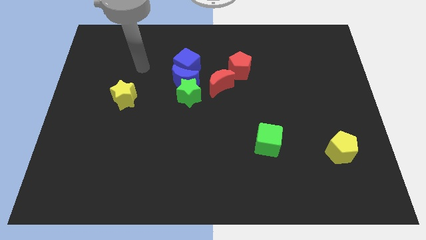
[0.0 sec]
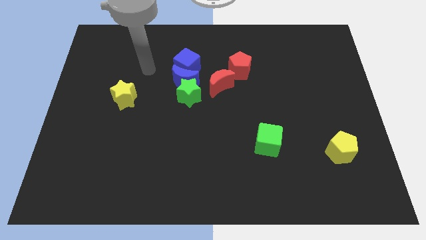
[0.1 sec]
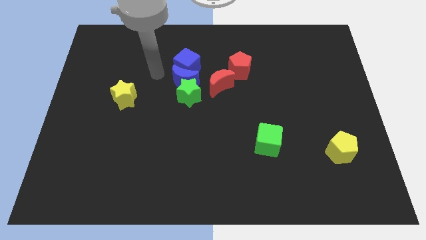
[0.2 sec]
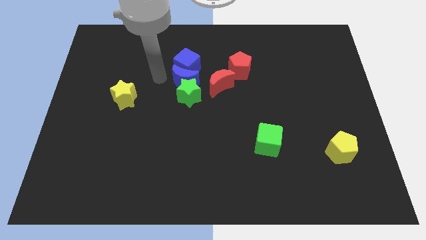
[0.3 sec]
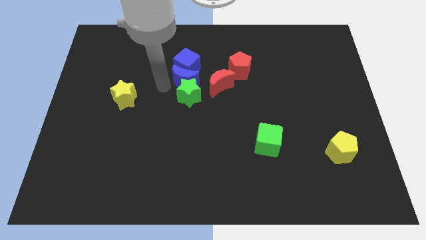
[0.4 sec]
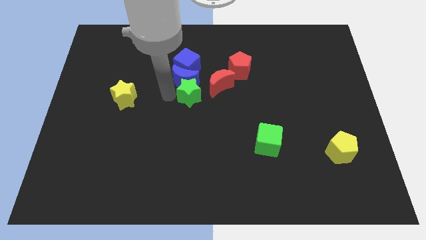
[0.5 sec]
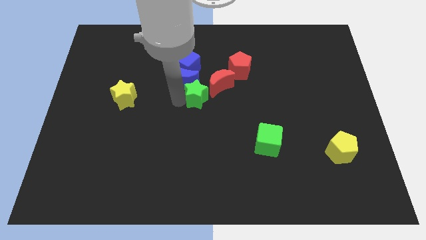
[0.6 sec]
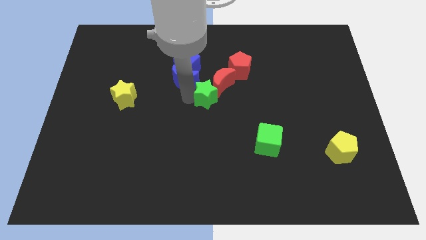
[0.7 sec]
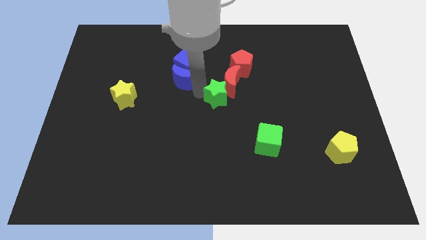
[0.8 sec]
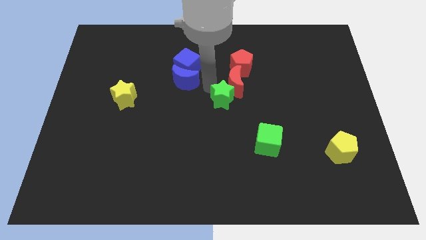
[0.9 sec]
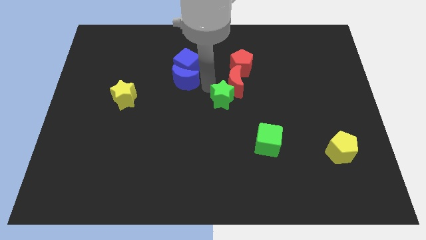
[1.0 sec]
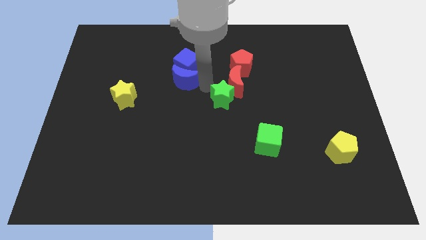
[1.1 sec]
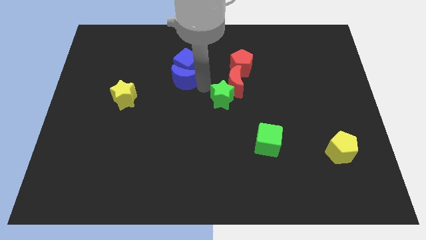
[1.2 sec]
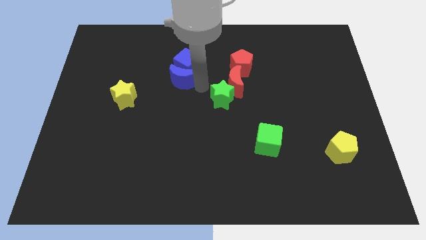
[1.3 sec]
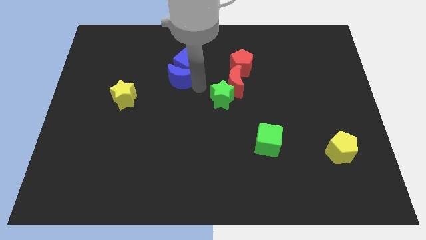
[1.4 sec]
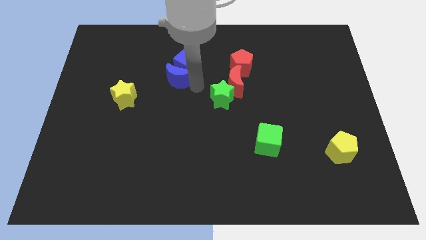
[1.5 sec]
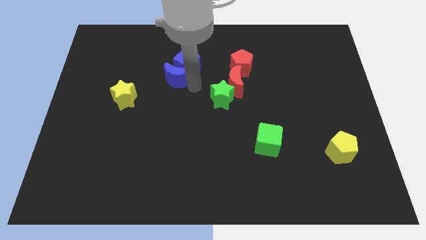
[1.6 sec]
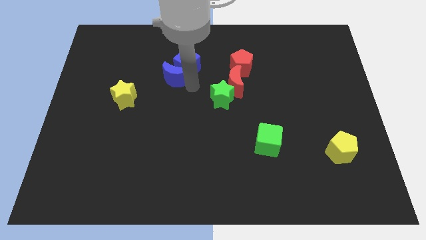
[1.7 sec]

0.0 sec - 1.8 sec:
separate the blue moon from the green star, blue cube, and red moon

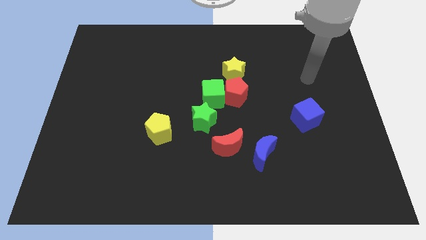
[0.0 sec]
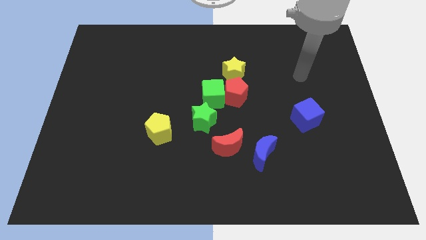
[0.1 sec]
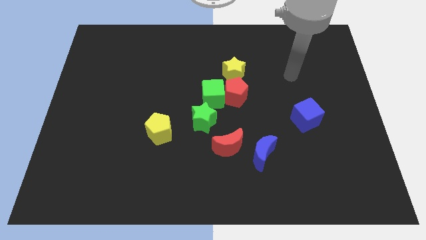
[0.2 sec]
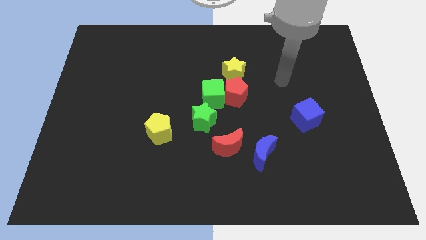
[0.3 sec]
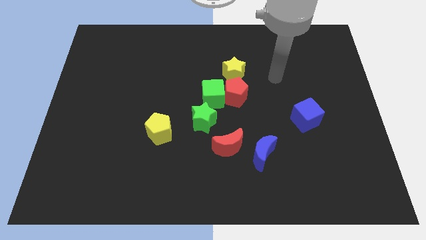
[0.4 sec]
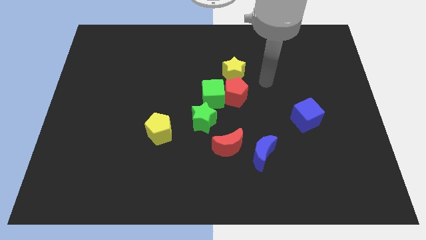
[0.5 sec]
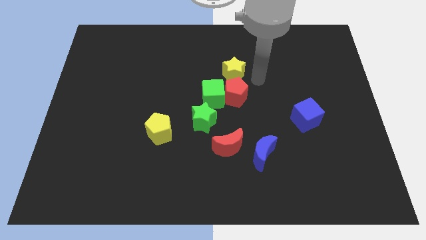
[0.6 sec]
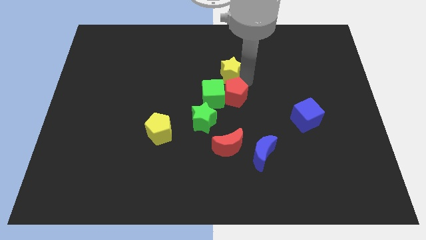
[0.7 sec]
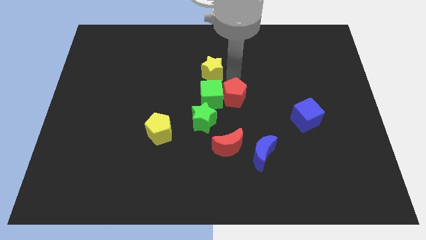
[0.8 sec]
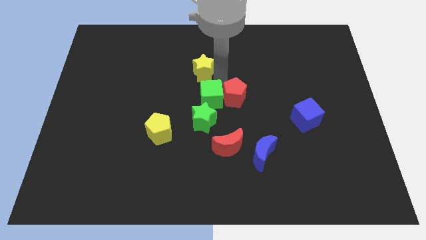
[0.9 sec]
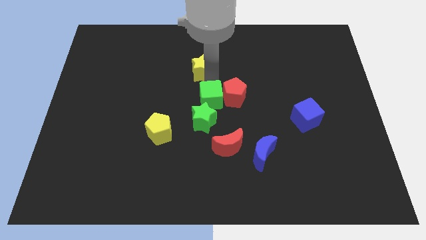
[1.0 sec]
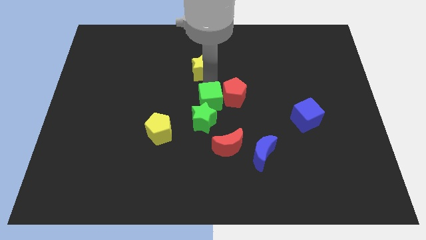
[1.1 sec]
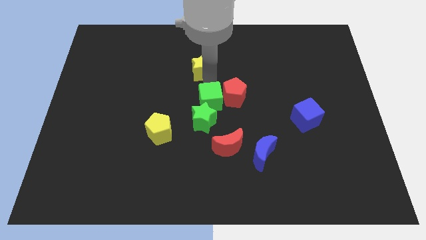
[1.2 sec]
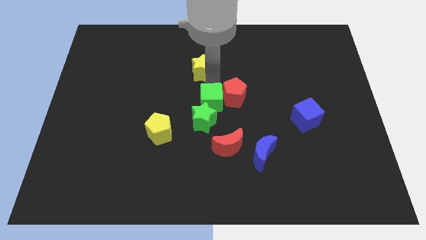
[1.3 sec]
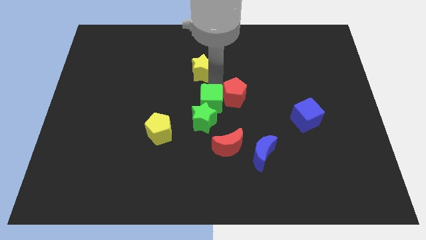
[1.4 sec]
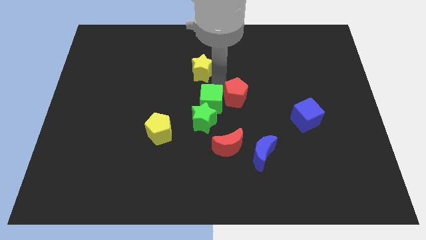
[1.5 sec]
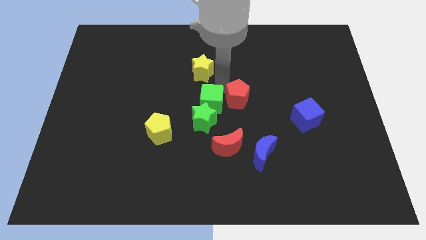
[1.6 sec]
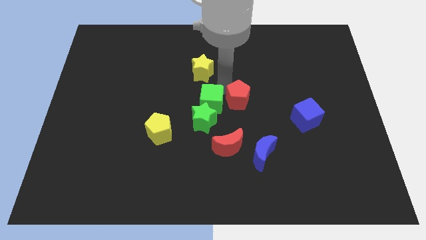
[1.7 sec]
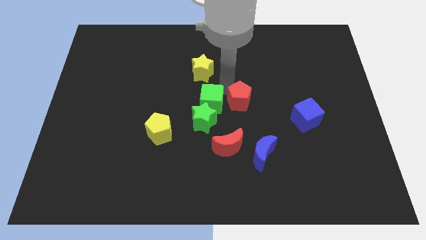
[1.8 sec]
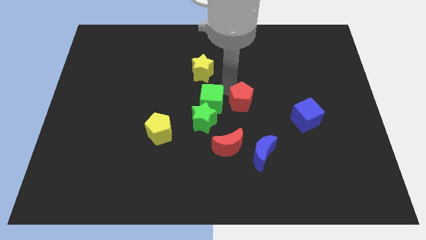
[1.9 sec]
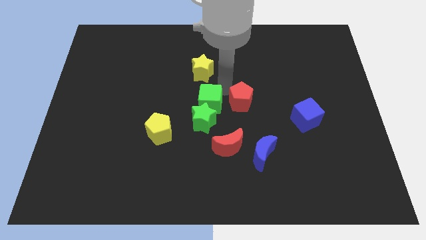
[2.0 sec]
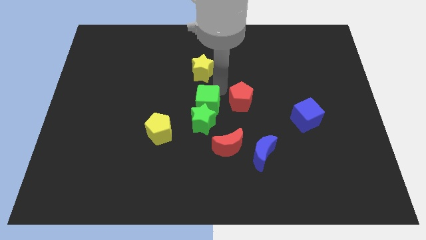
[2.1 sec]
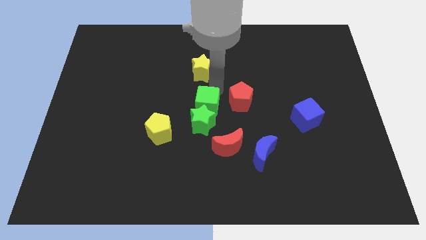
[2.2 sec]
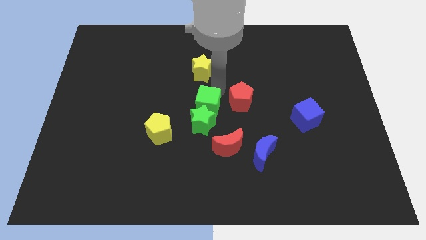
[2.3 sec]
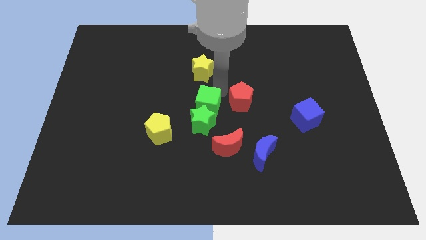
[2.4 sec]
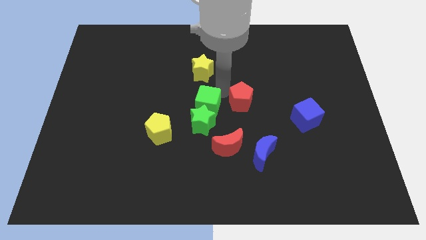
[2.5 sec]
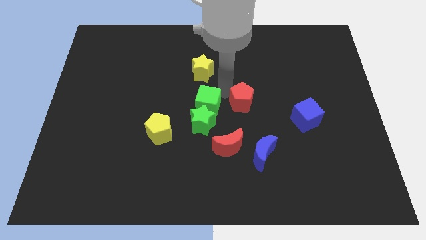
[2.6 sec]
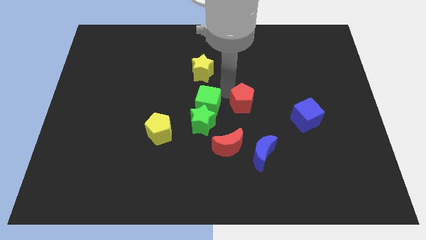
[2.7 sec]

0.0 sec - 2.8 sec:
move the red pentagon away from the green cube and yellow star

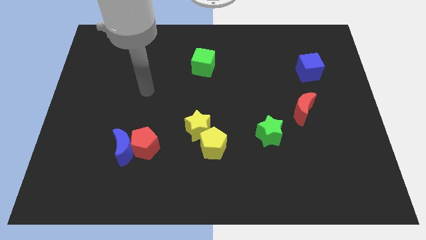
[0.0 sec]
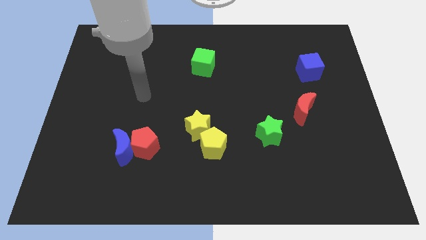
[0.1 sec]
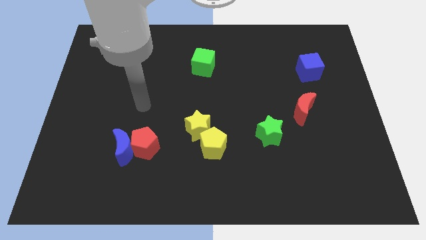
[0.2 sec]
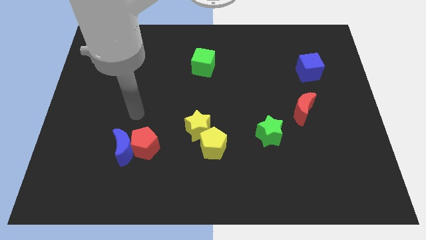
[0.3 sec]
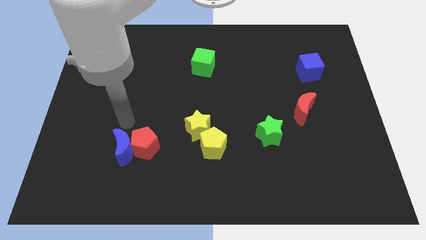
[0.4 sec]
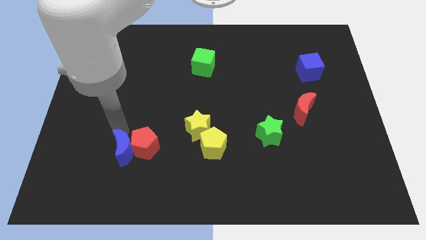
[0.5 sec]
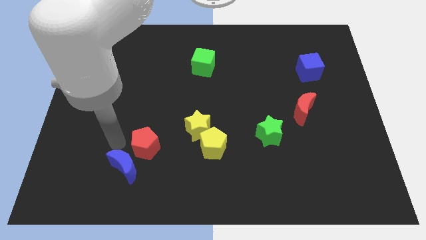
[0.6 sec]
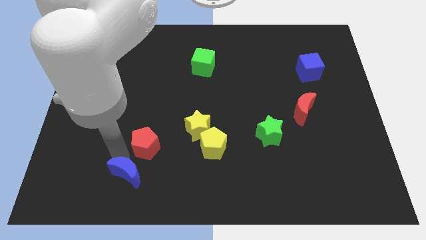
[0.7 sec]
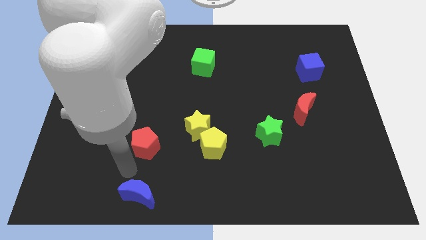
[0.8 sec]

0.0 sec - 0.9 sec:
separate the red pentagon from the blue moon

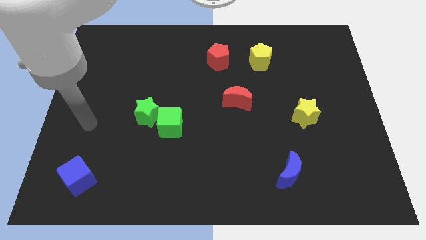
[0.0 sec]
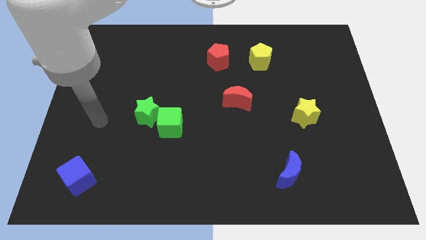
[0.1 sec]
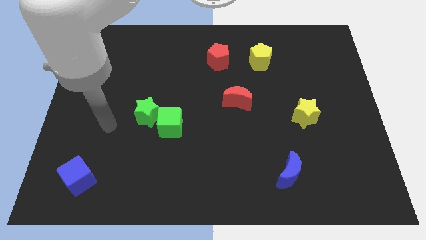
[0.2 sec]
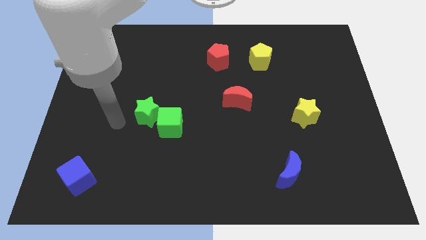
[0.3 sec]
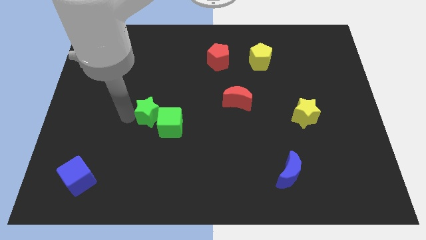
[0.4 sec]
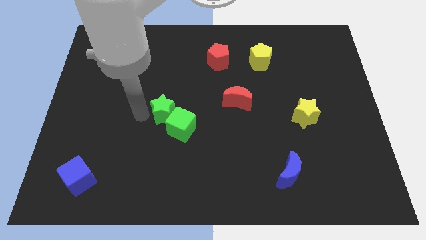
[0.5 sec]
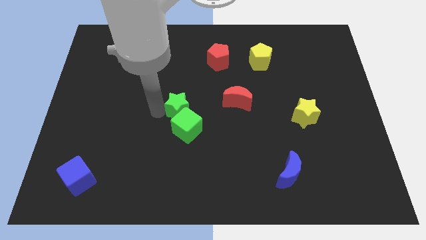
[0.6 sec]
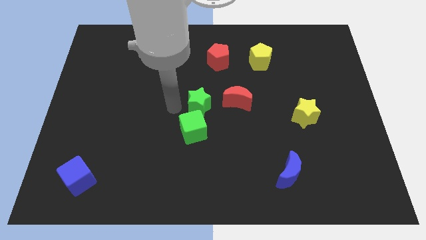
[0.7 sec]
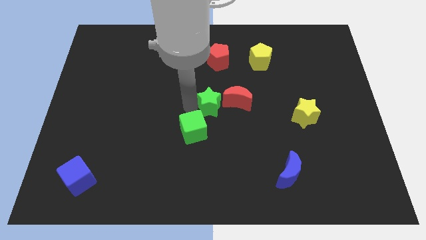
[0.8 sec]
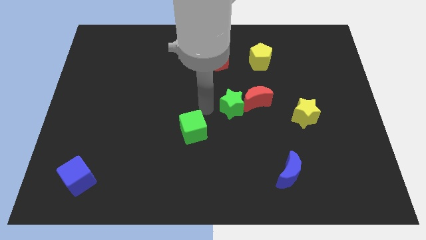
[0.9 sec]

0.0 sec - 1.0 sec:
move the green cube away from the green star

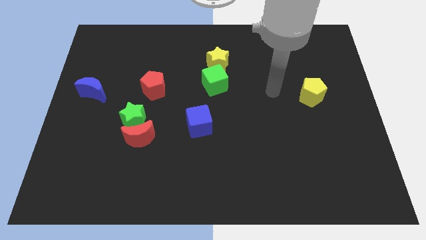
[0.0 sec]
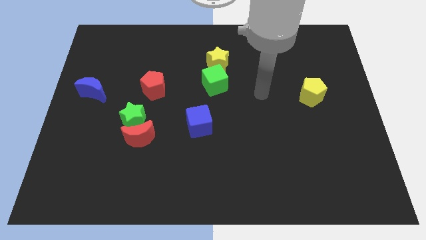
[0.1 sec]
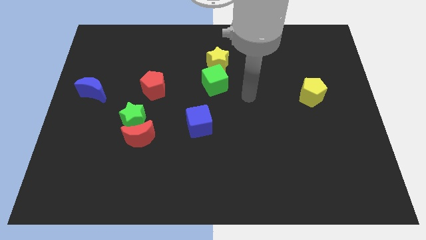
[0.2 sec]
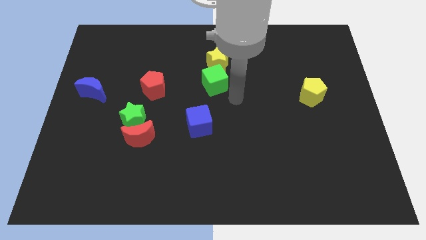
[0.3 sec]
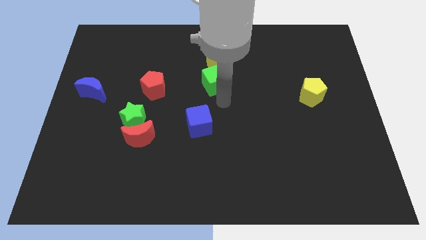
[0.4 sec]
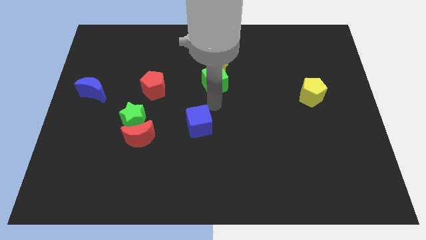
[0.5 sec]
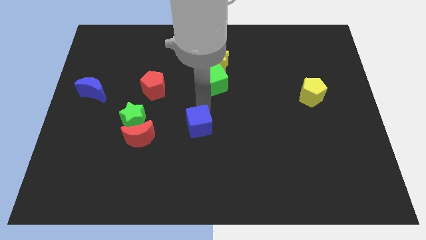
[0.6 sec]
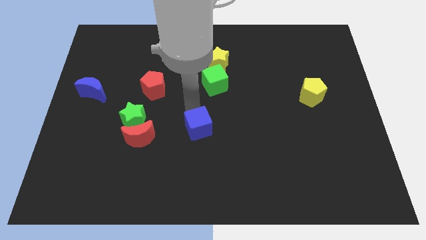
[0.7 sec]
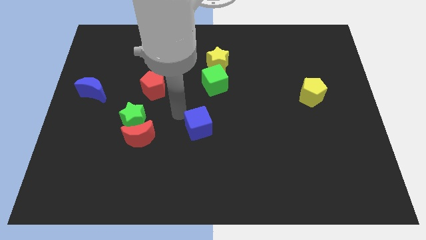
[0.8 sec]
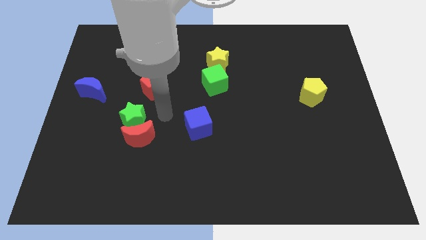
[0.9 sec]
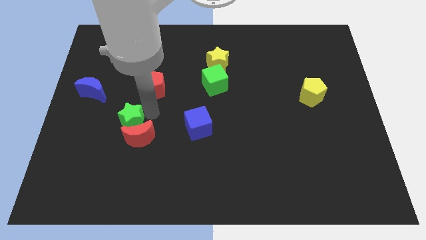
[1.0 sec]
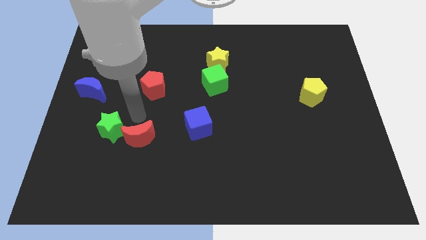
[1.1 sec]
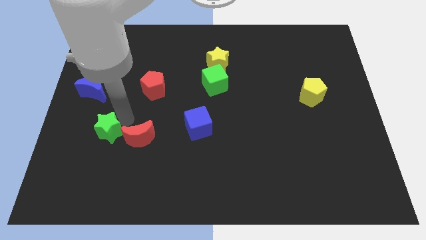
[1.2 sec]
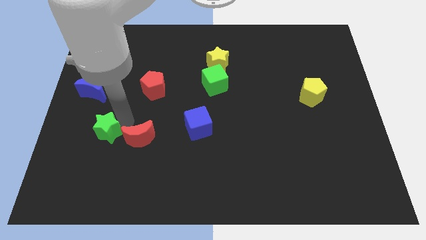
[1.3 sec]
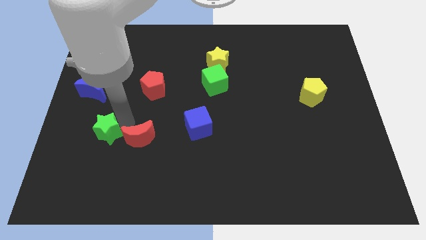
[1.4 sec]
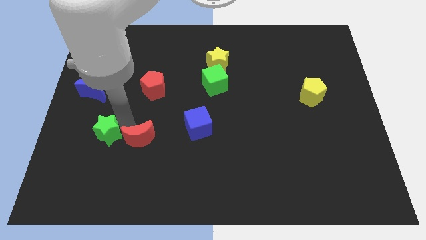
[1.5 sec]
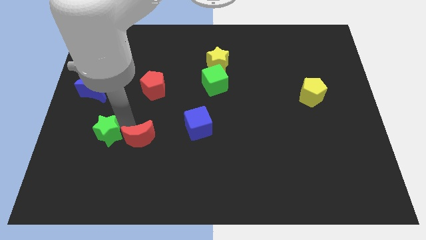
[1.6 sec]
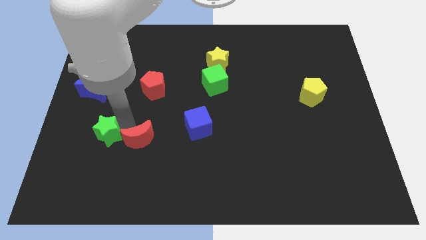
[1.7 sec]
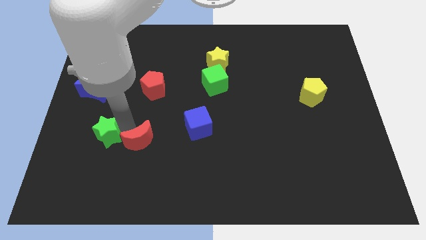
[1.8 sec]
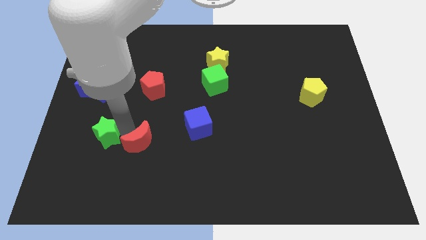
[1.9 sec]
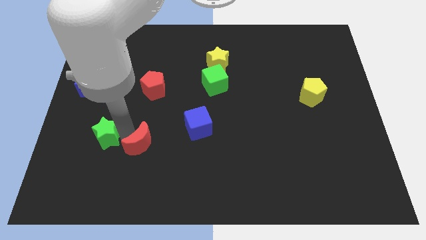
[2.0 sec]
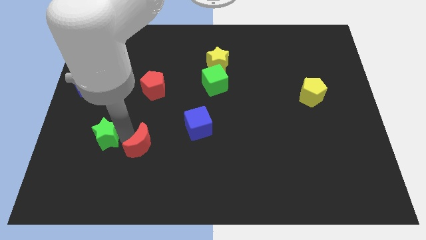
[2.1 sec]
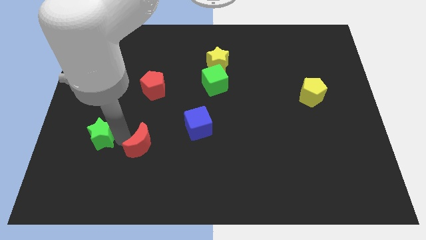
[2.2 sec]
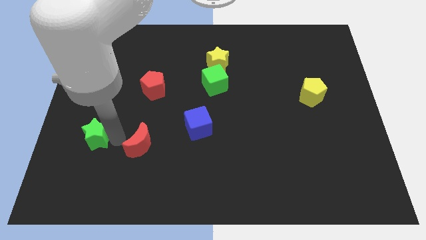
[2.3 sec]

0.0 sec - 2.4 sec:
move the red moon away from the green star

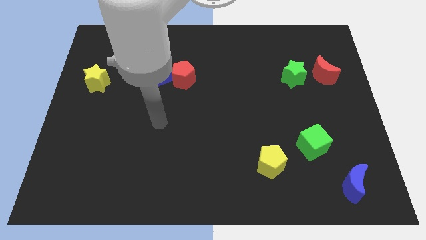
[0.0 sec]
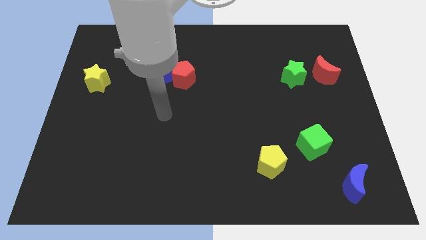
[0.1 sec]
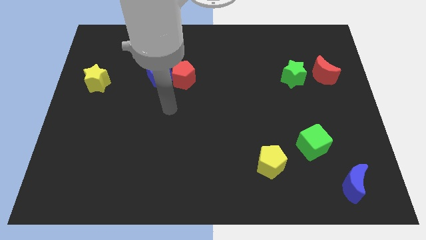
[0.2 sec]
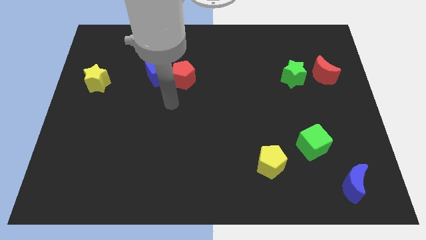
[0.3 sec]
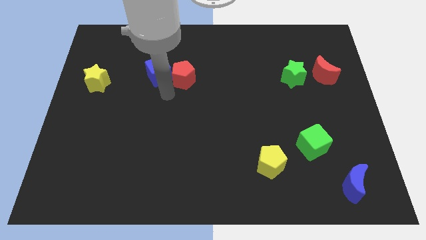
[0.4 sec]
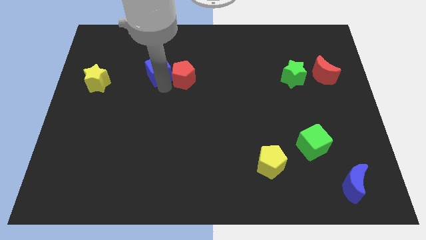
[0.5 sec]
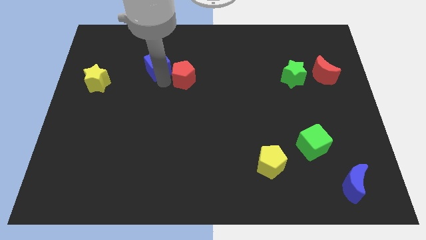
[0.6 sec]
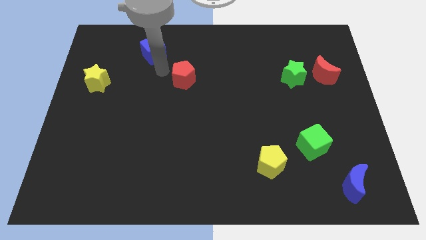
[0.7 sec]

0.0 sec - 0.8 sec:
pull the red pentagon apart from the blue cube
